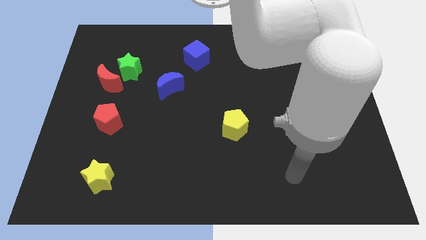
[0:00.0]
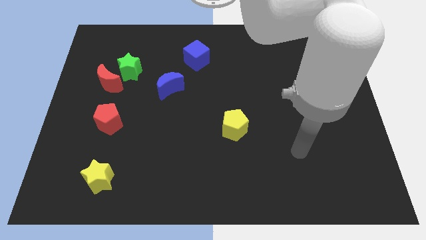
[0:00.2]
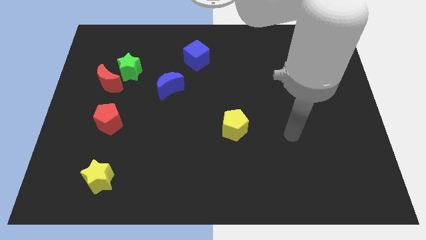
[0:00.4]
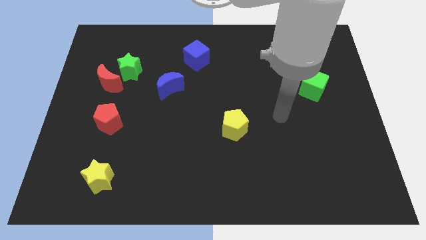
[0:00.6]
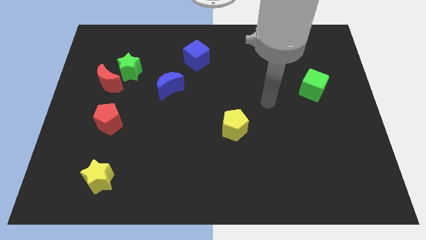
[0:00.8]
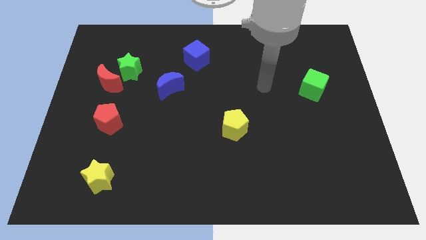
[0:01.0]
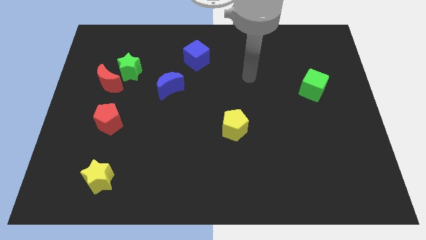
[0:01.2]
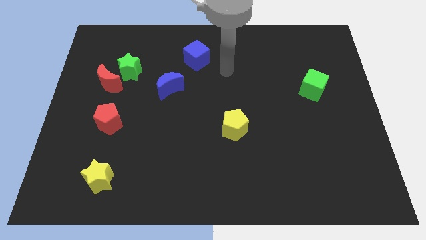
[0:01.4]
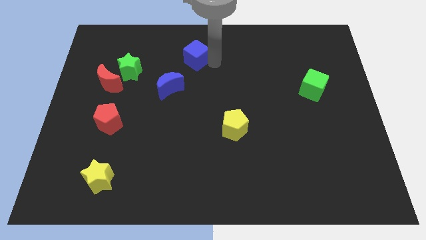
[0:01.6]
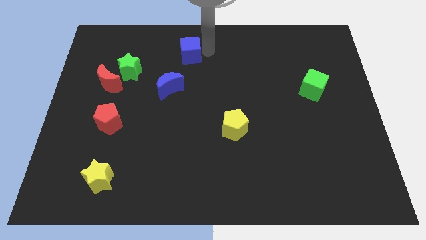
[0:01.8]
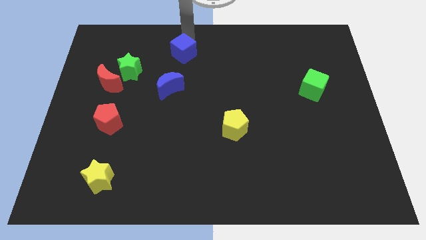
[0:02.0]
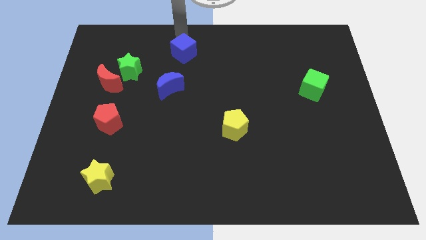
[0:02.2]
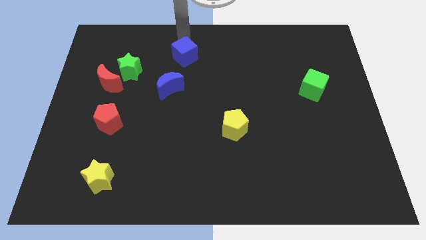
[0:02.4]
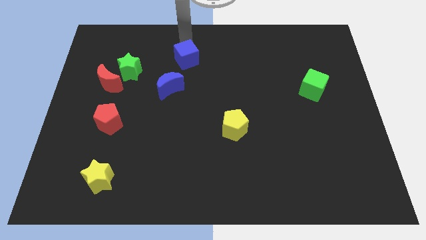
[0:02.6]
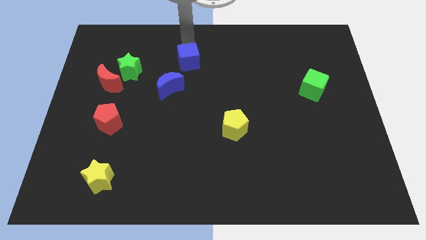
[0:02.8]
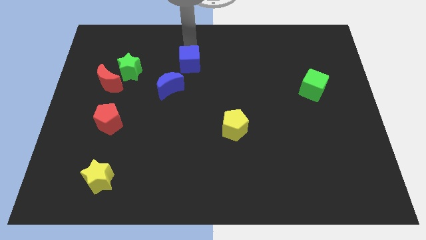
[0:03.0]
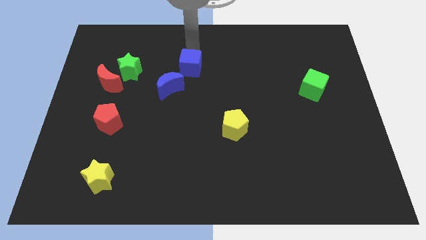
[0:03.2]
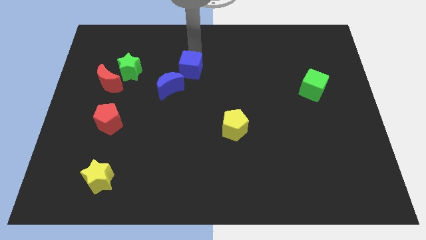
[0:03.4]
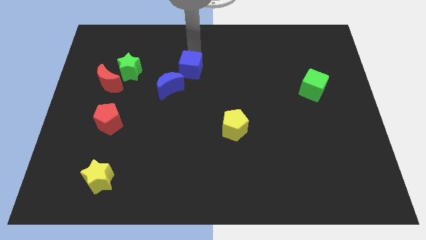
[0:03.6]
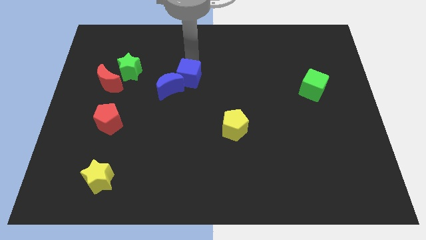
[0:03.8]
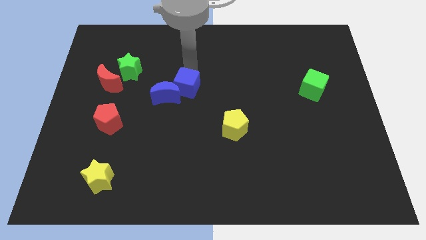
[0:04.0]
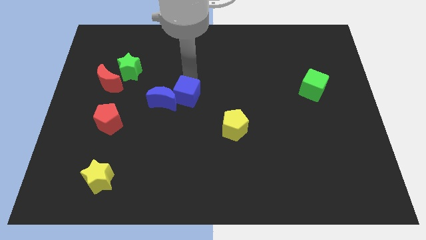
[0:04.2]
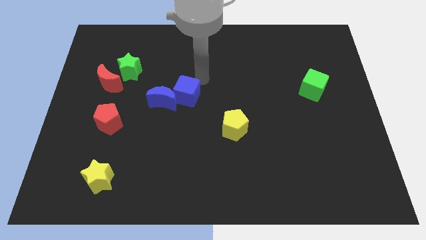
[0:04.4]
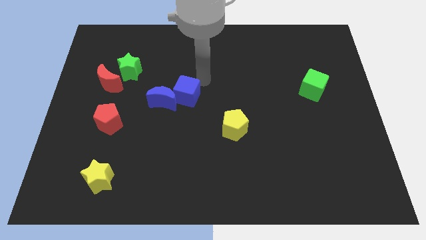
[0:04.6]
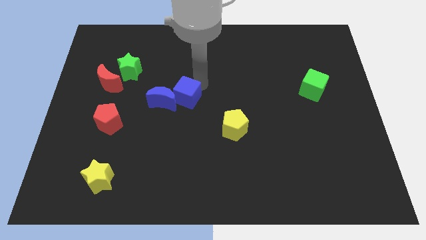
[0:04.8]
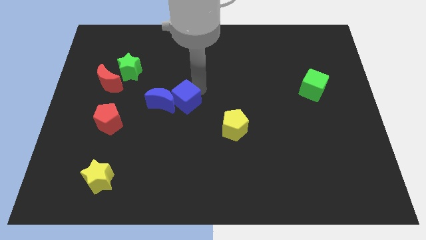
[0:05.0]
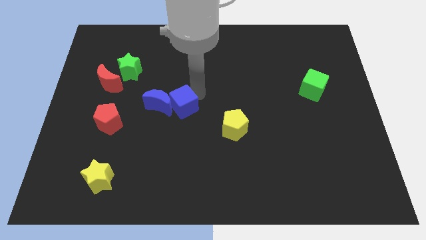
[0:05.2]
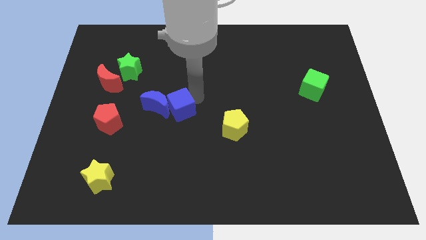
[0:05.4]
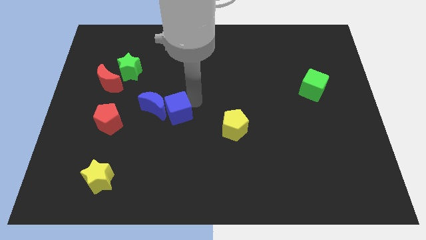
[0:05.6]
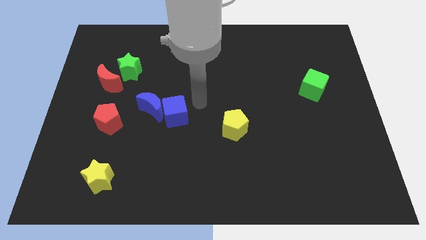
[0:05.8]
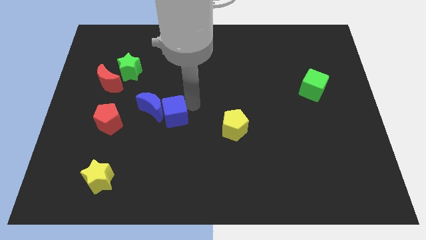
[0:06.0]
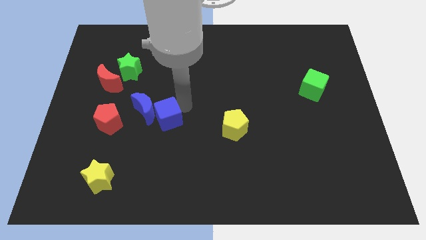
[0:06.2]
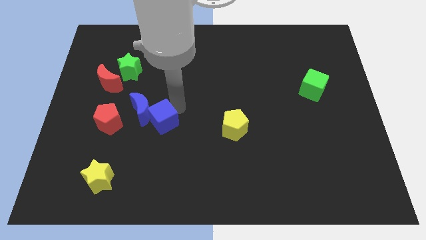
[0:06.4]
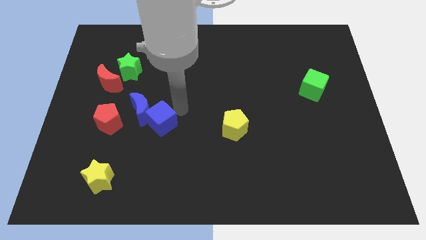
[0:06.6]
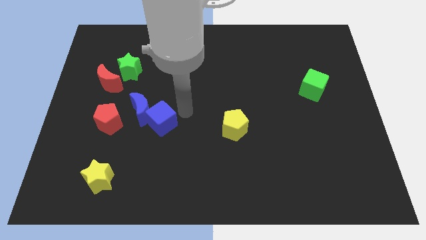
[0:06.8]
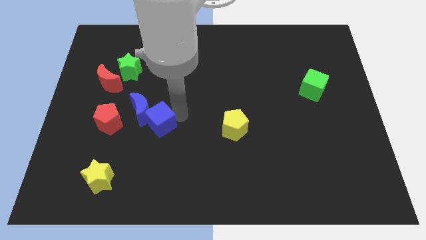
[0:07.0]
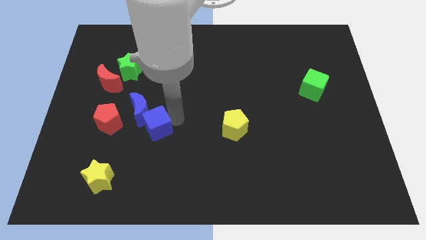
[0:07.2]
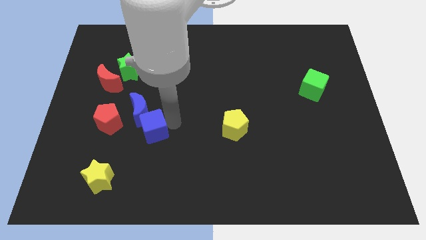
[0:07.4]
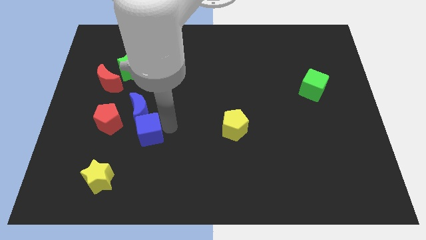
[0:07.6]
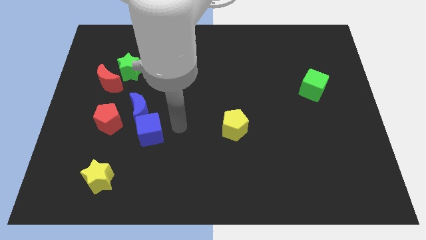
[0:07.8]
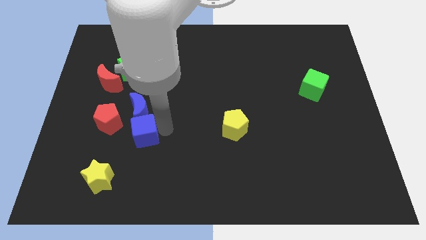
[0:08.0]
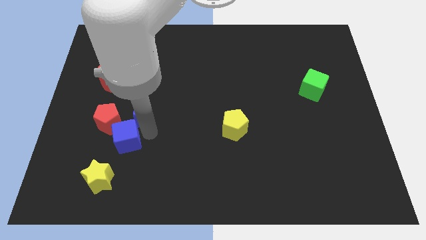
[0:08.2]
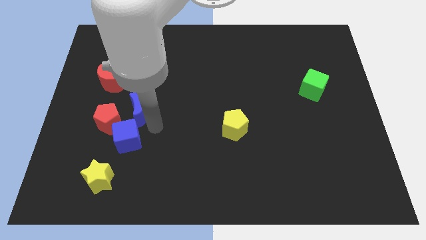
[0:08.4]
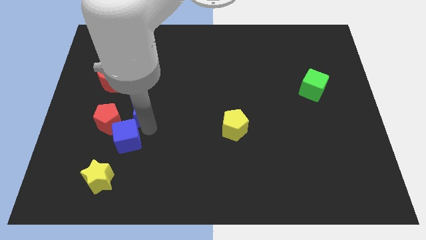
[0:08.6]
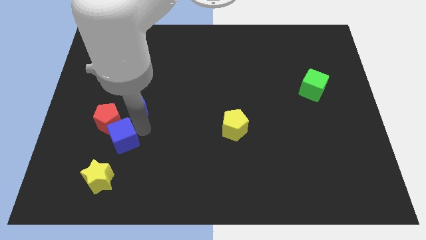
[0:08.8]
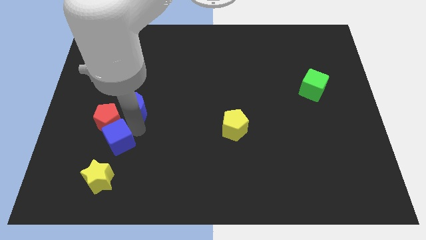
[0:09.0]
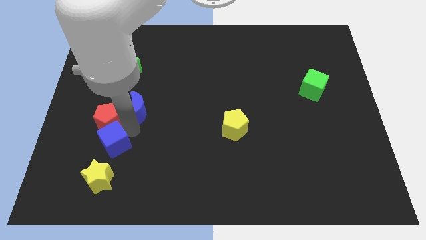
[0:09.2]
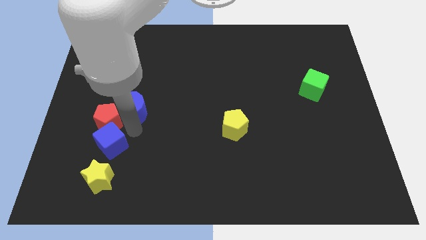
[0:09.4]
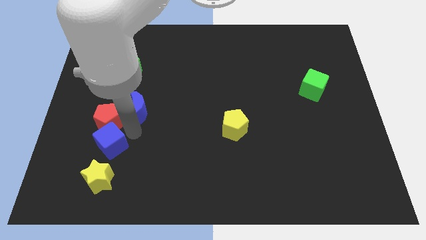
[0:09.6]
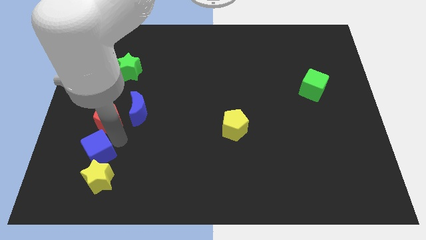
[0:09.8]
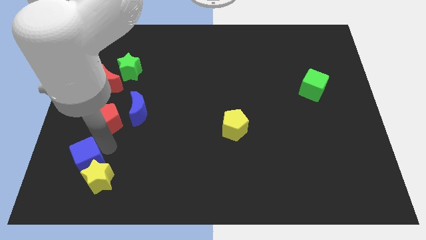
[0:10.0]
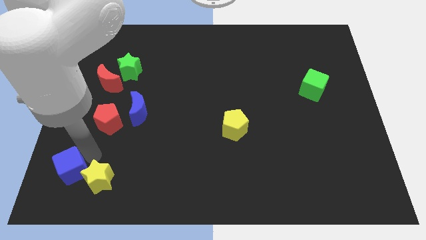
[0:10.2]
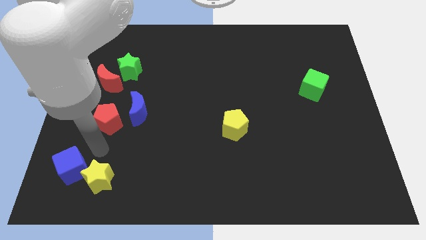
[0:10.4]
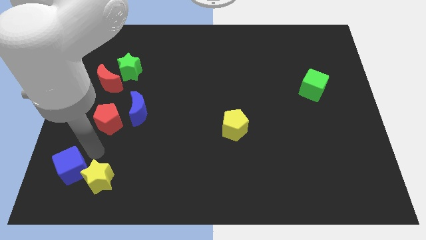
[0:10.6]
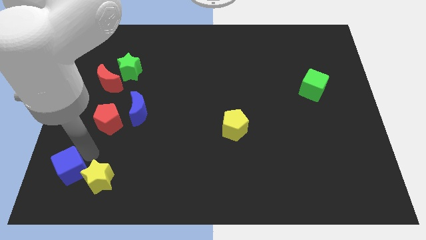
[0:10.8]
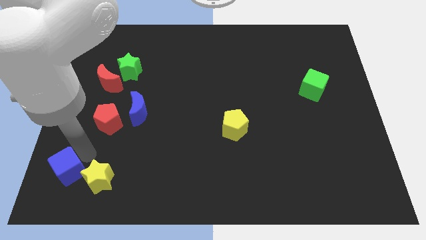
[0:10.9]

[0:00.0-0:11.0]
put the blue cube to the bottom left of the board

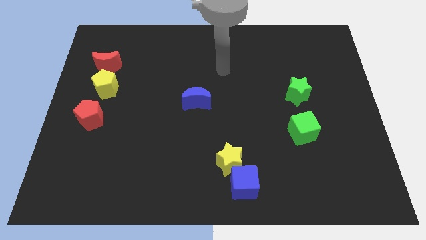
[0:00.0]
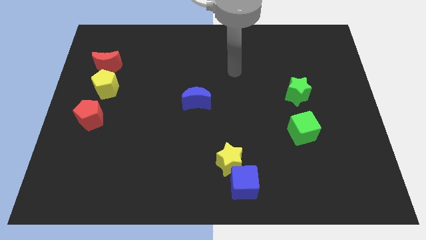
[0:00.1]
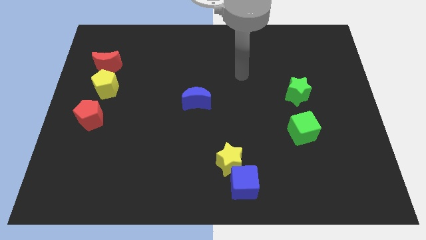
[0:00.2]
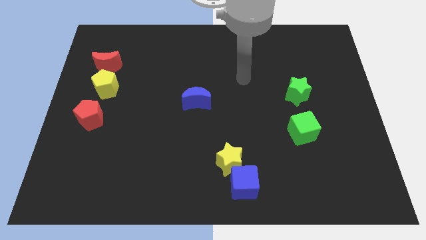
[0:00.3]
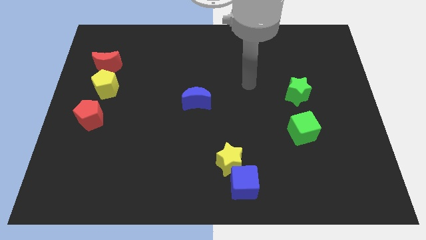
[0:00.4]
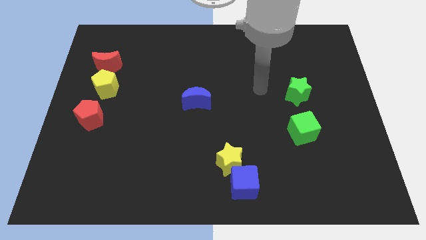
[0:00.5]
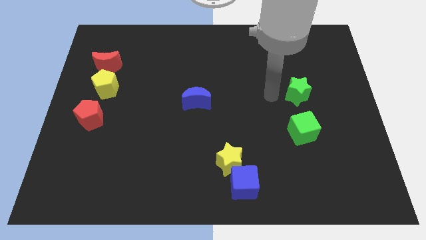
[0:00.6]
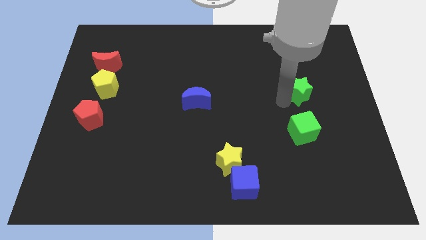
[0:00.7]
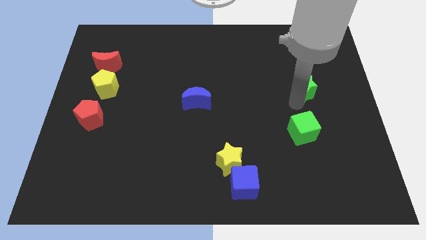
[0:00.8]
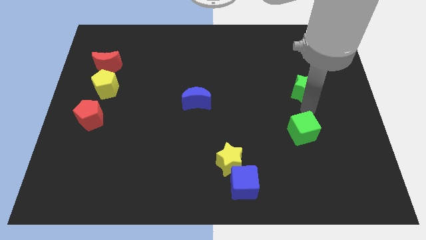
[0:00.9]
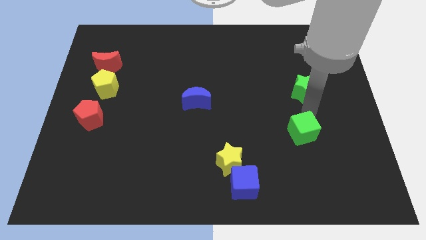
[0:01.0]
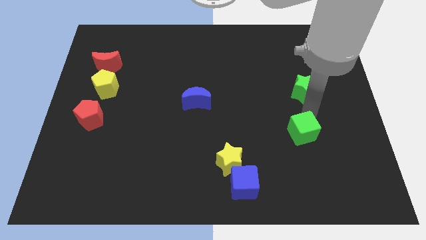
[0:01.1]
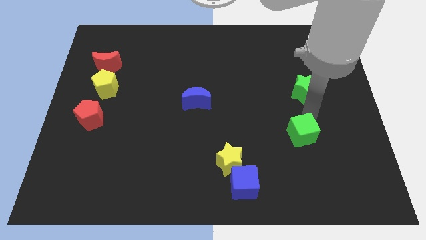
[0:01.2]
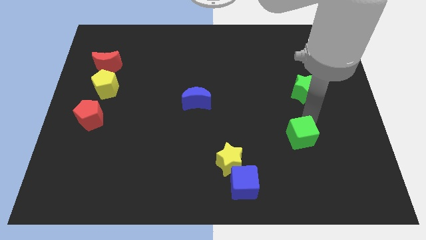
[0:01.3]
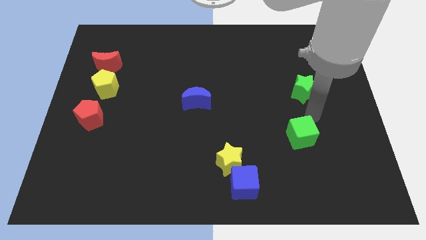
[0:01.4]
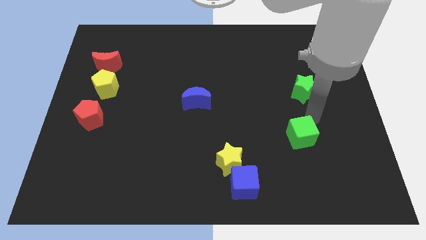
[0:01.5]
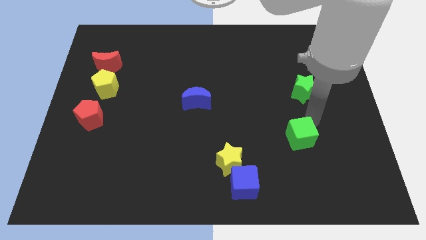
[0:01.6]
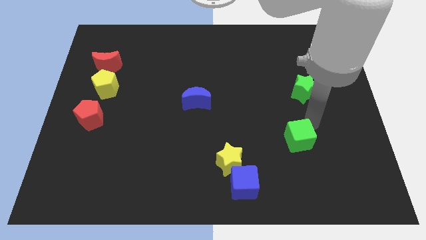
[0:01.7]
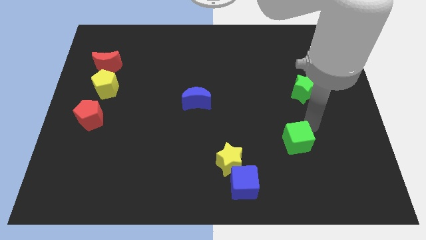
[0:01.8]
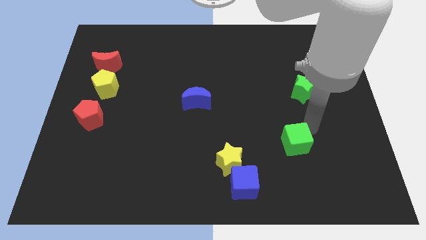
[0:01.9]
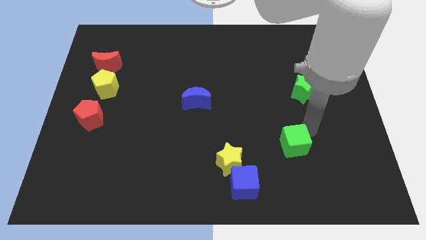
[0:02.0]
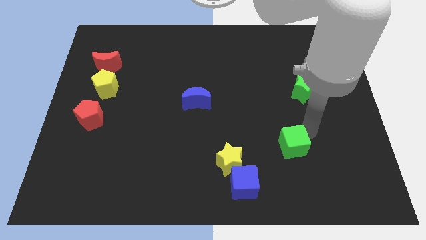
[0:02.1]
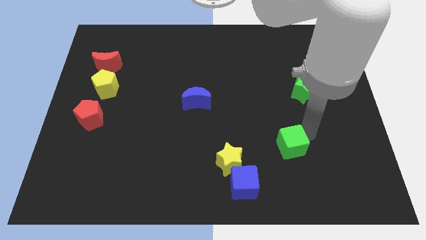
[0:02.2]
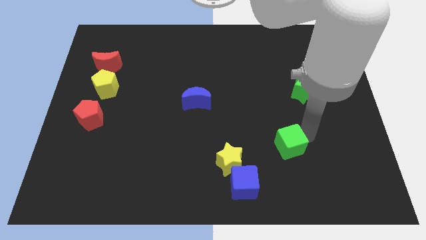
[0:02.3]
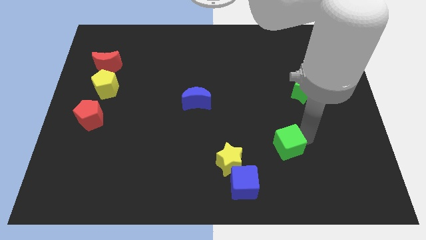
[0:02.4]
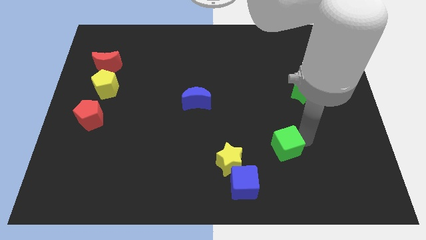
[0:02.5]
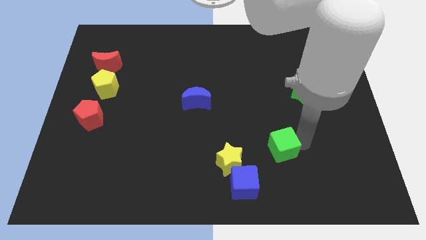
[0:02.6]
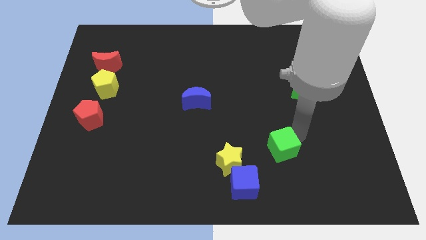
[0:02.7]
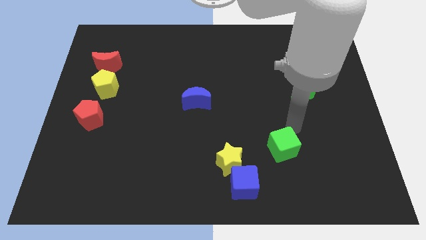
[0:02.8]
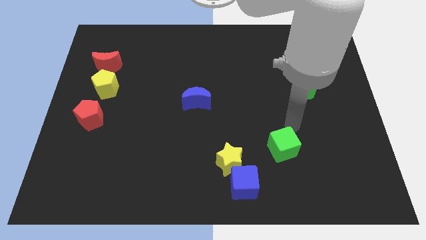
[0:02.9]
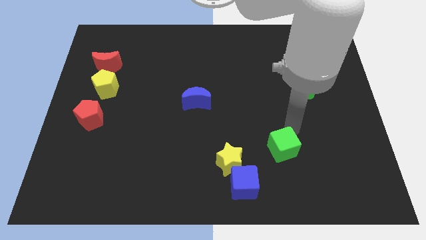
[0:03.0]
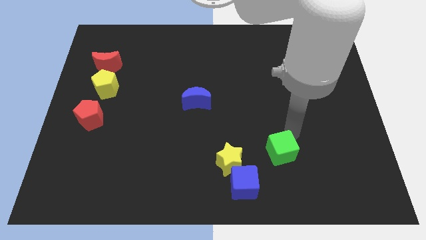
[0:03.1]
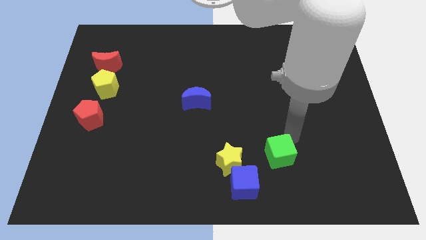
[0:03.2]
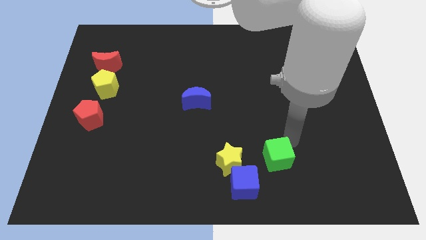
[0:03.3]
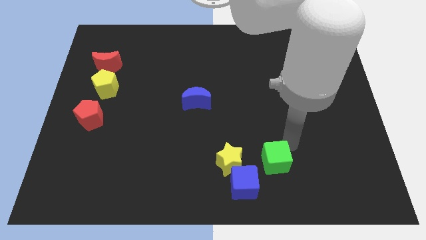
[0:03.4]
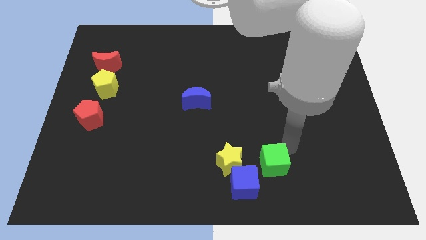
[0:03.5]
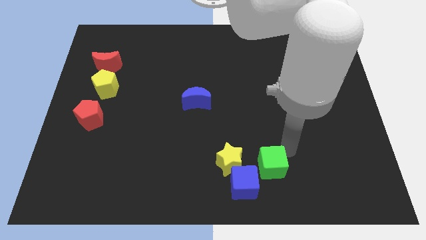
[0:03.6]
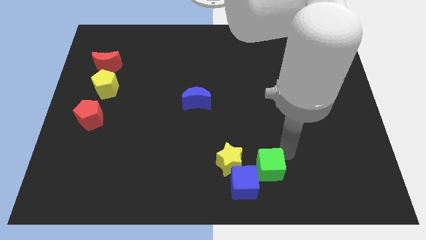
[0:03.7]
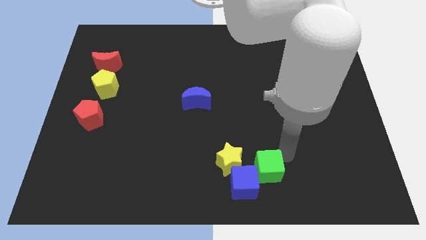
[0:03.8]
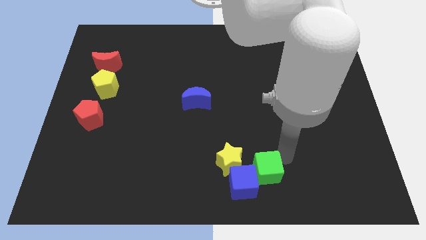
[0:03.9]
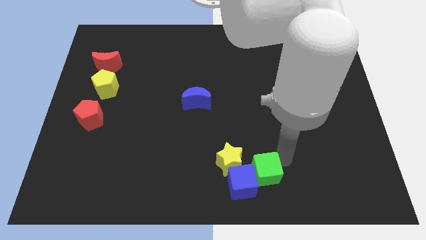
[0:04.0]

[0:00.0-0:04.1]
slide the green cube to the bottom side
